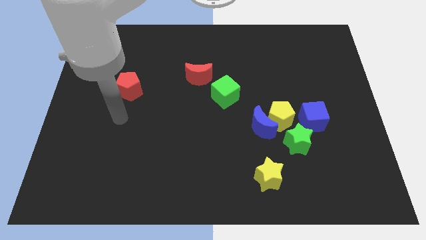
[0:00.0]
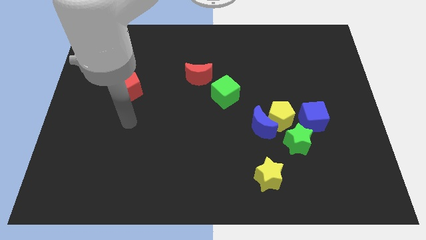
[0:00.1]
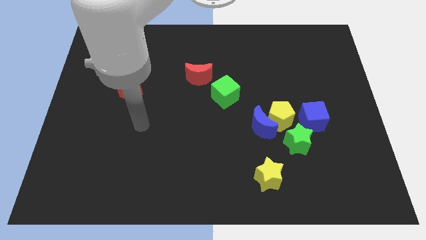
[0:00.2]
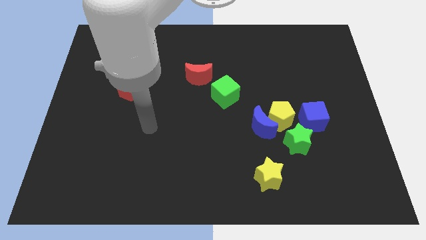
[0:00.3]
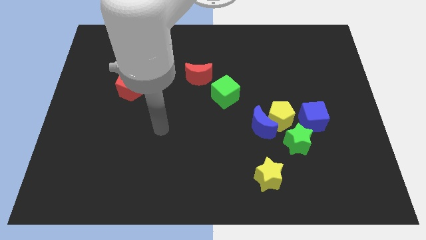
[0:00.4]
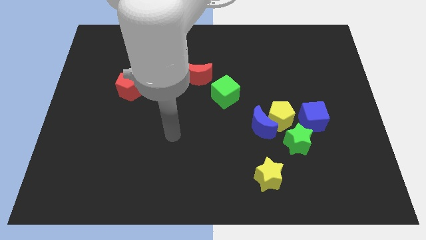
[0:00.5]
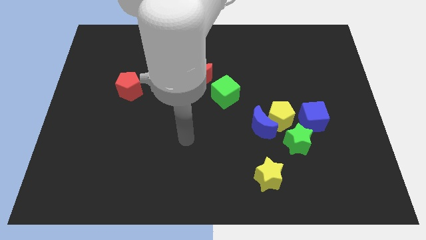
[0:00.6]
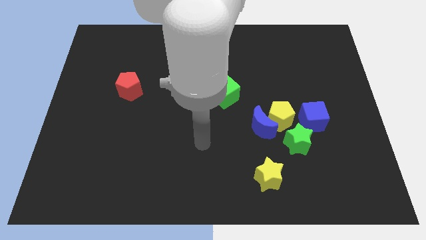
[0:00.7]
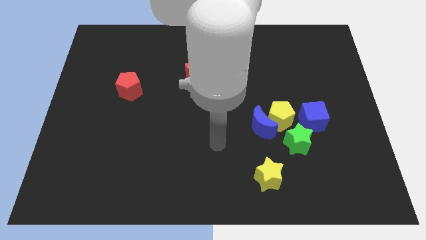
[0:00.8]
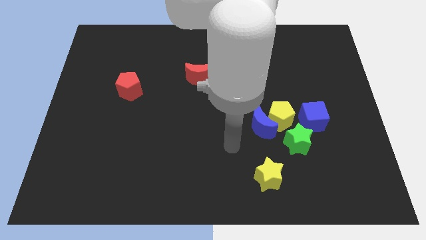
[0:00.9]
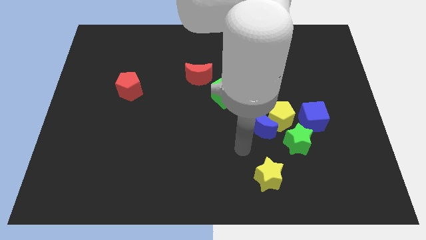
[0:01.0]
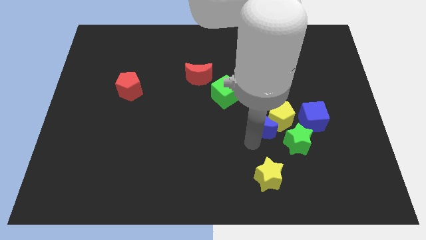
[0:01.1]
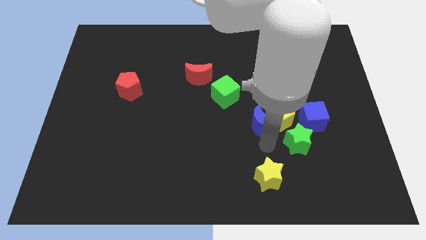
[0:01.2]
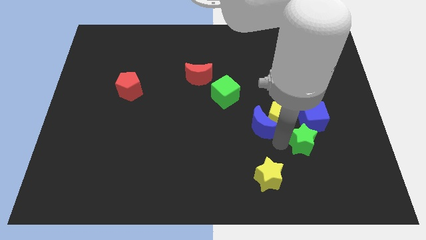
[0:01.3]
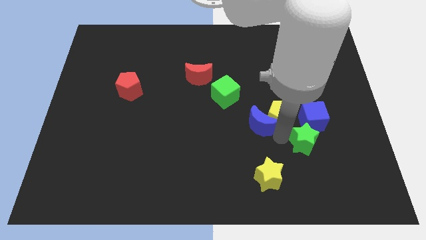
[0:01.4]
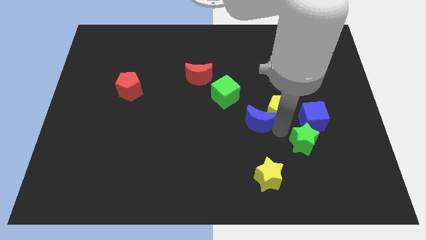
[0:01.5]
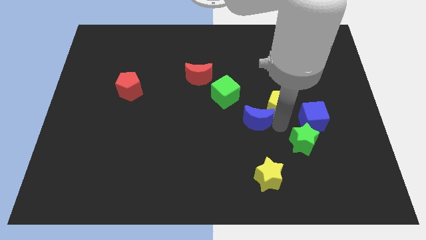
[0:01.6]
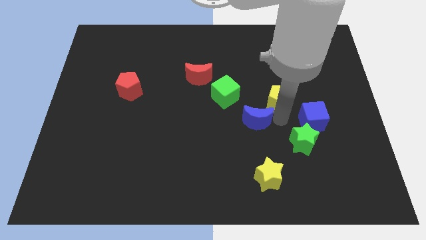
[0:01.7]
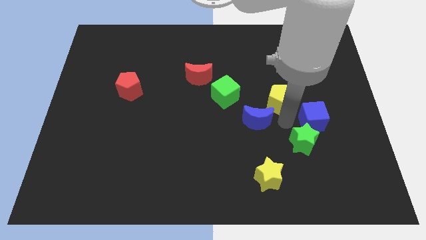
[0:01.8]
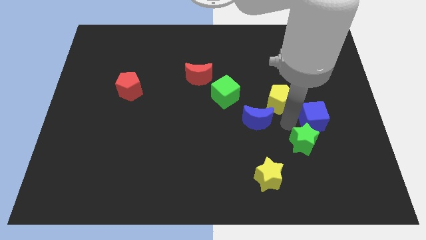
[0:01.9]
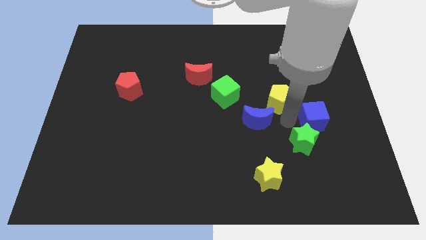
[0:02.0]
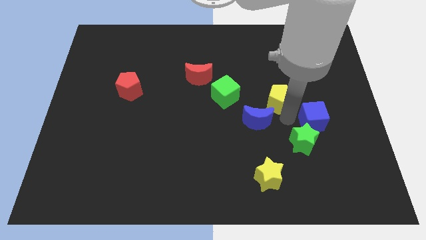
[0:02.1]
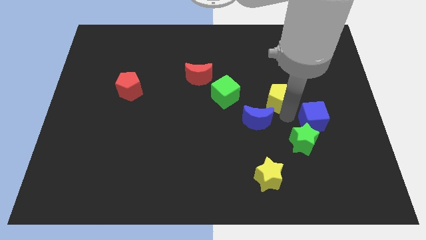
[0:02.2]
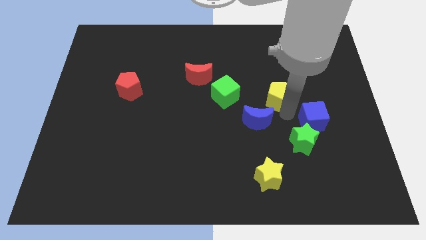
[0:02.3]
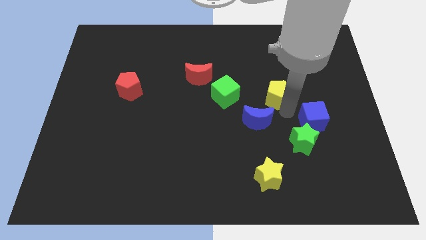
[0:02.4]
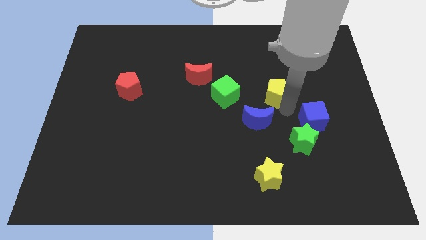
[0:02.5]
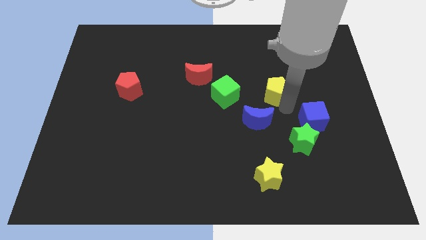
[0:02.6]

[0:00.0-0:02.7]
separate the yellow pentagon from the blue moon, blue cube, and green star

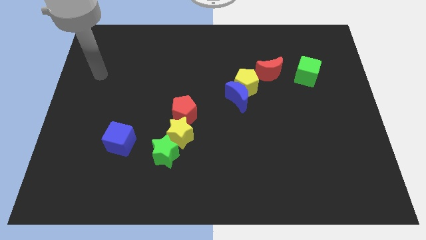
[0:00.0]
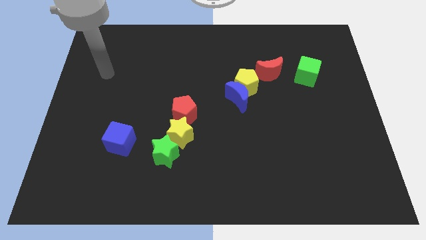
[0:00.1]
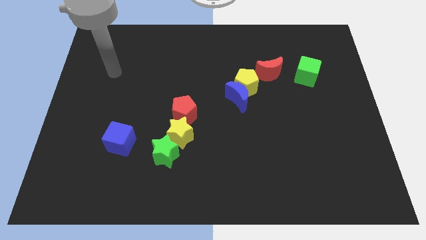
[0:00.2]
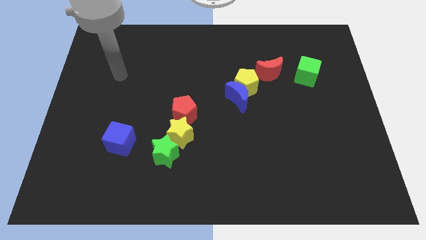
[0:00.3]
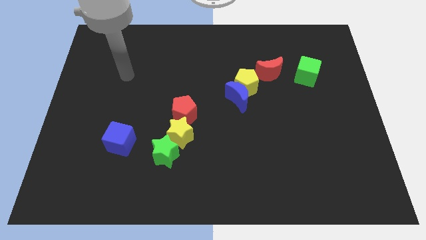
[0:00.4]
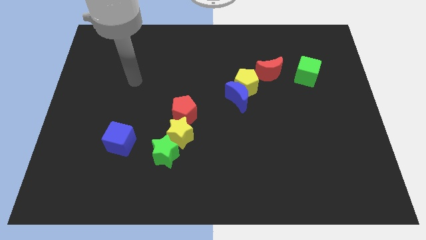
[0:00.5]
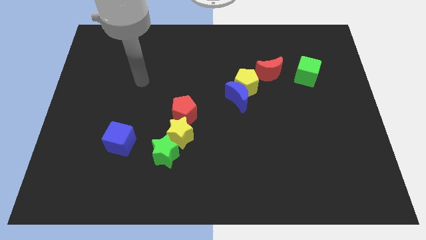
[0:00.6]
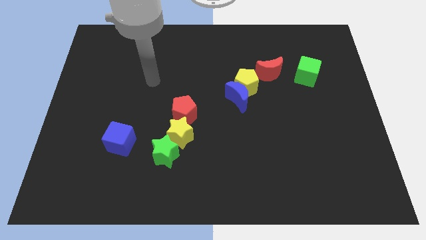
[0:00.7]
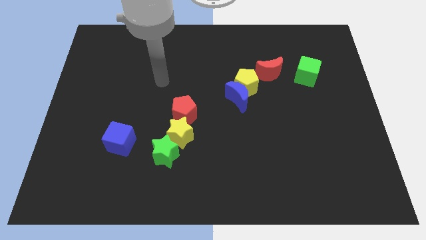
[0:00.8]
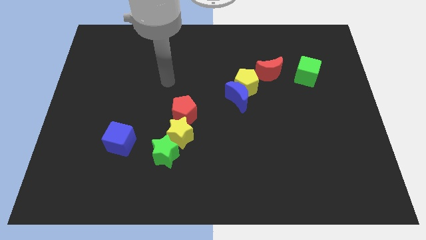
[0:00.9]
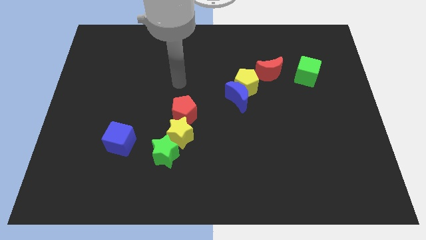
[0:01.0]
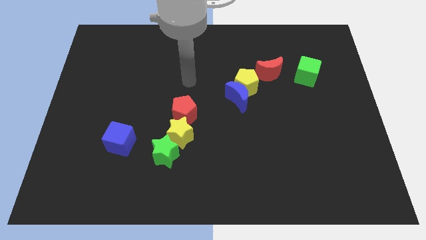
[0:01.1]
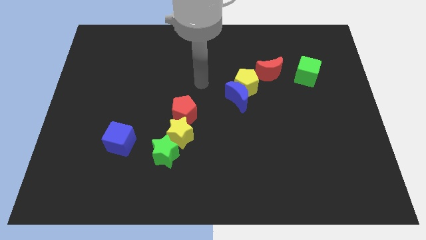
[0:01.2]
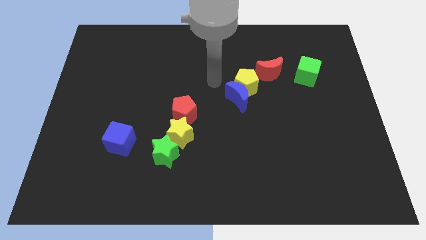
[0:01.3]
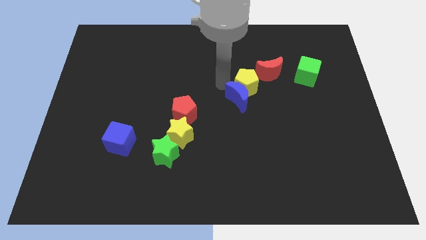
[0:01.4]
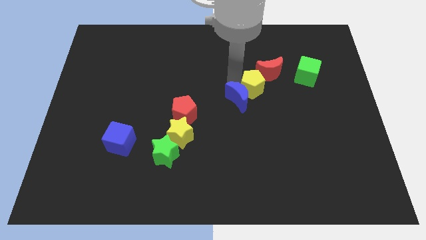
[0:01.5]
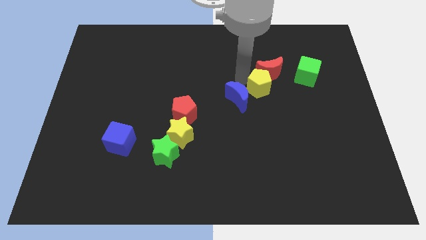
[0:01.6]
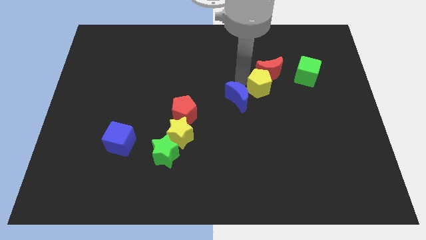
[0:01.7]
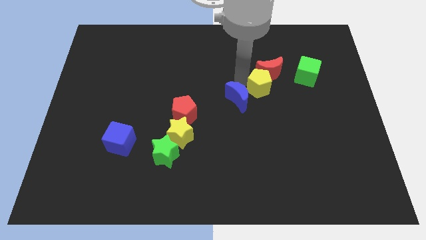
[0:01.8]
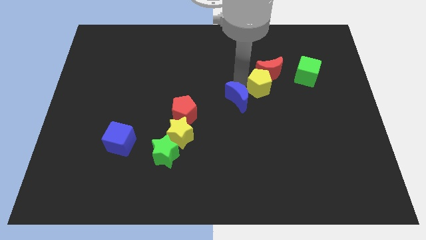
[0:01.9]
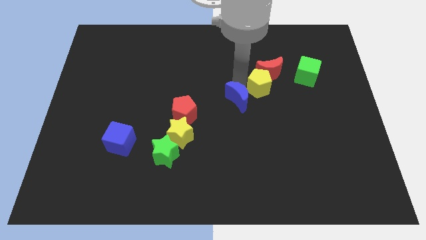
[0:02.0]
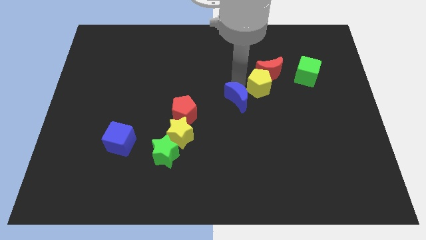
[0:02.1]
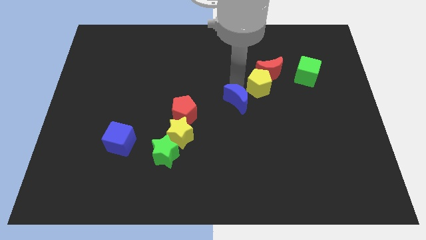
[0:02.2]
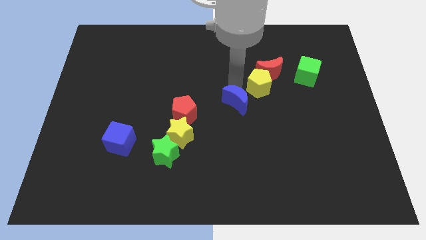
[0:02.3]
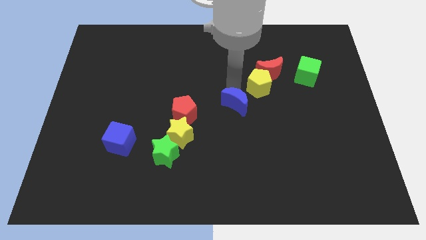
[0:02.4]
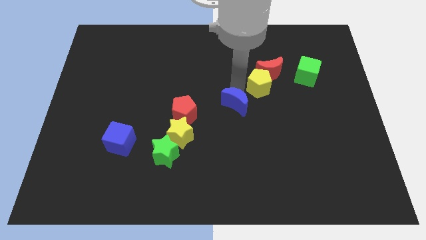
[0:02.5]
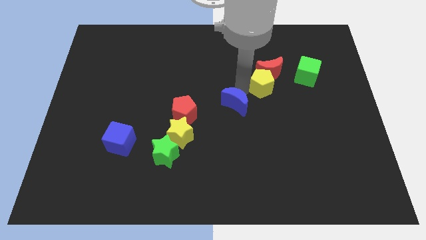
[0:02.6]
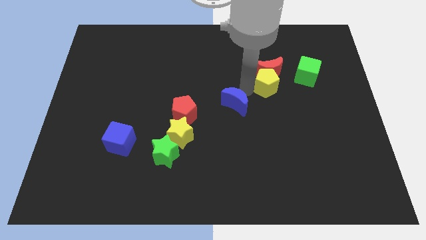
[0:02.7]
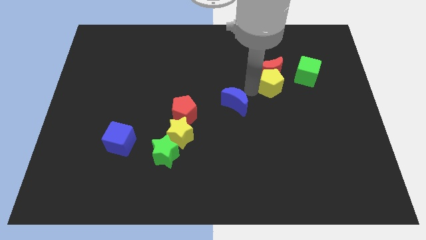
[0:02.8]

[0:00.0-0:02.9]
move the blue moon away from the yellow pentagon

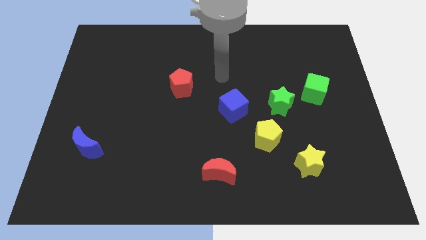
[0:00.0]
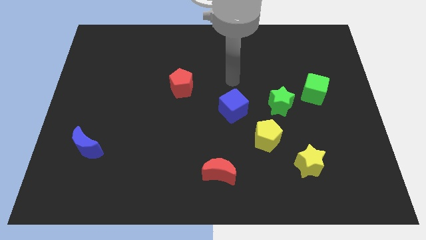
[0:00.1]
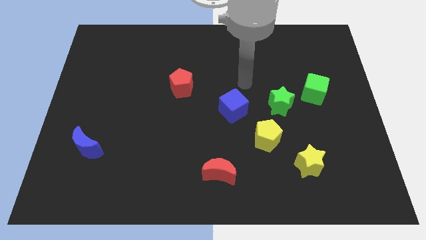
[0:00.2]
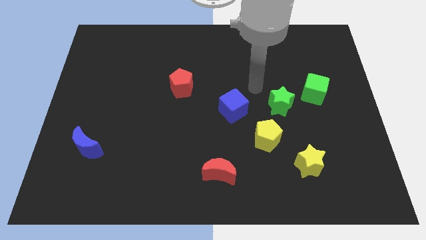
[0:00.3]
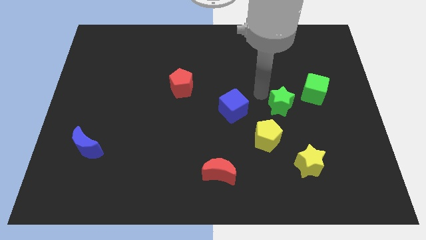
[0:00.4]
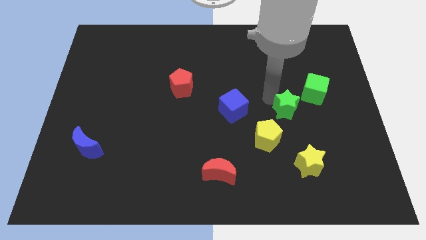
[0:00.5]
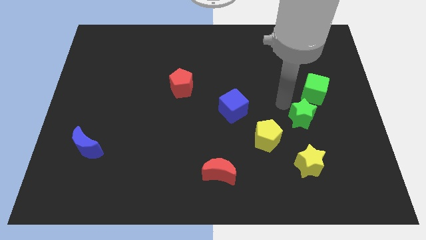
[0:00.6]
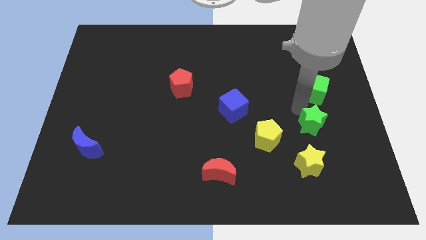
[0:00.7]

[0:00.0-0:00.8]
separate the green cube from the green star

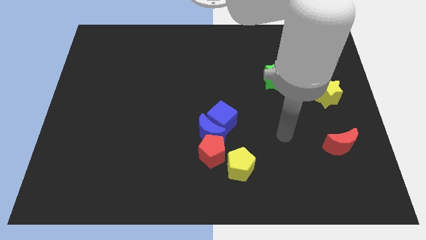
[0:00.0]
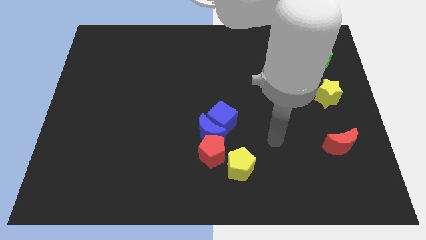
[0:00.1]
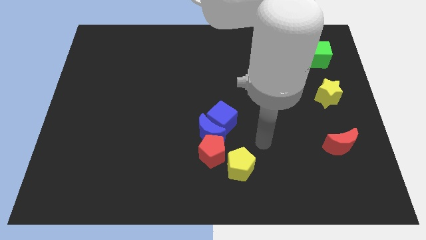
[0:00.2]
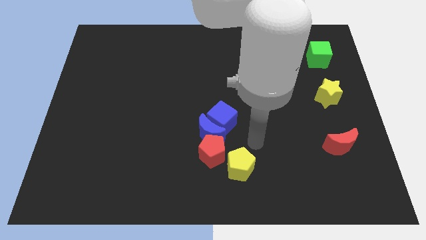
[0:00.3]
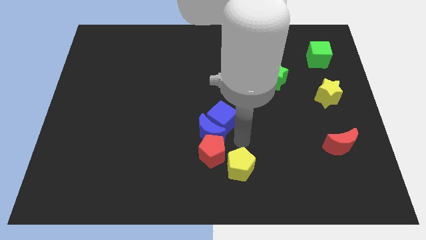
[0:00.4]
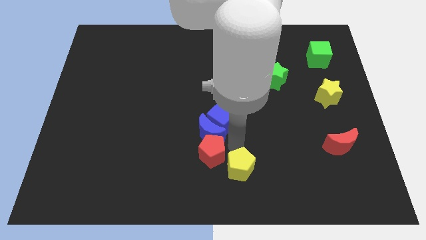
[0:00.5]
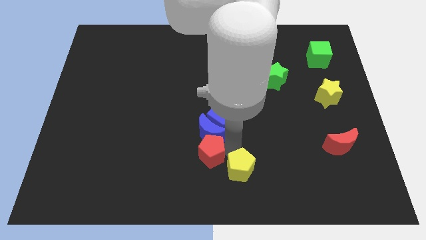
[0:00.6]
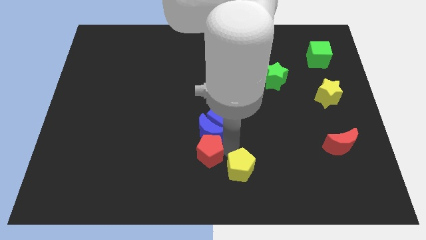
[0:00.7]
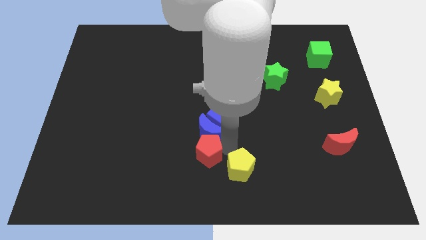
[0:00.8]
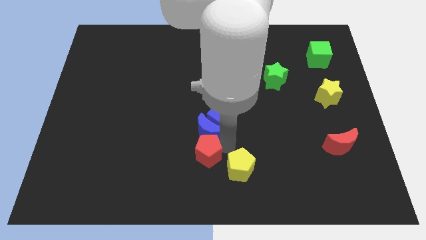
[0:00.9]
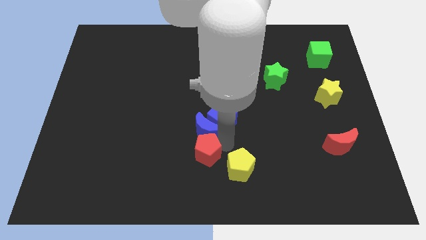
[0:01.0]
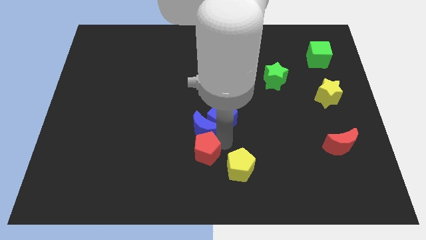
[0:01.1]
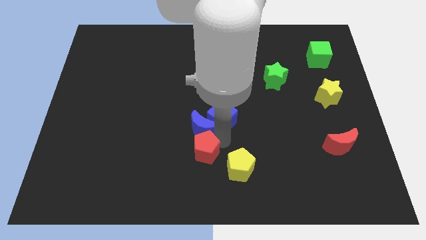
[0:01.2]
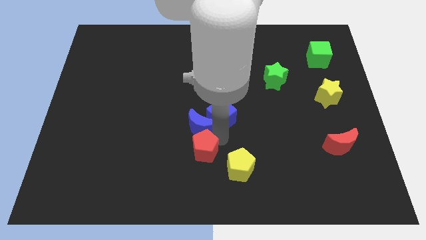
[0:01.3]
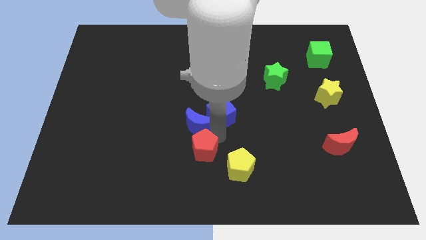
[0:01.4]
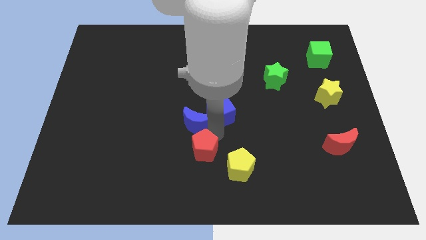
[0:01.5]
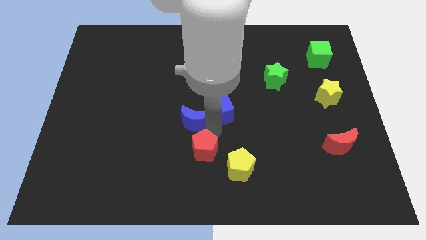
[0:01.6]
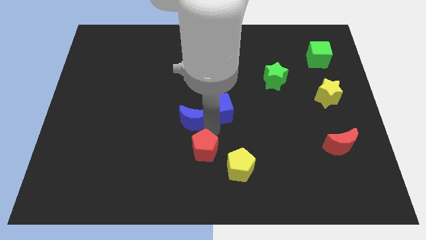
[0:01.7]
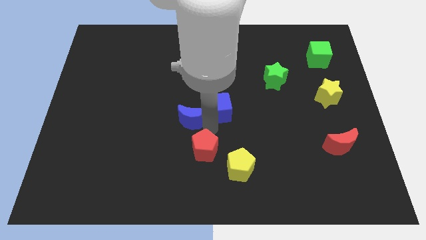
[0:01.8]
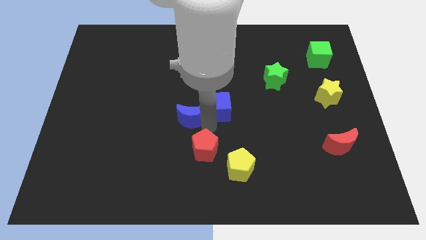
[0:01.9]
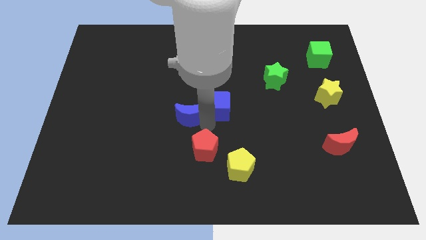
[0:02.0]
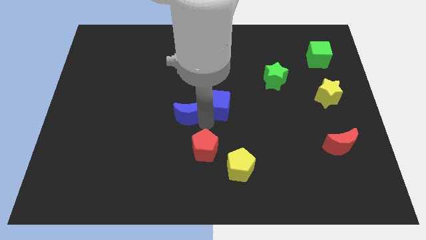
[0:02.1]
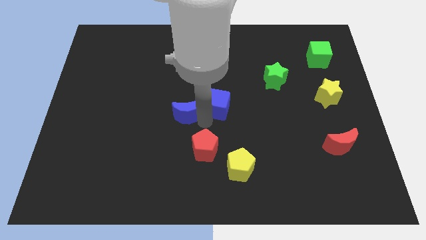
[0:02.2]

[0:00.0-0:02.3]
separate the blue moon from the blue cube, red pentagon, and yellow pentagon

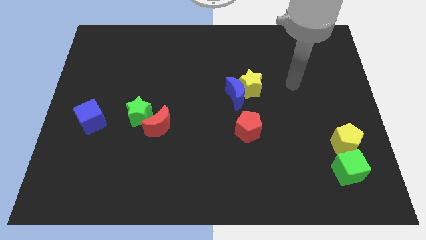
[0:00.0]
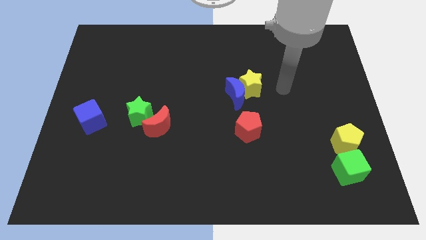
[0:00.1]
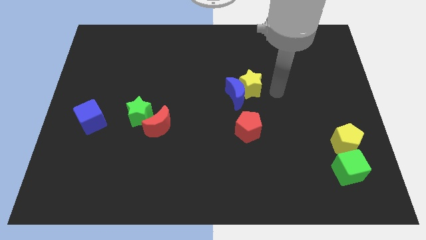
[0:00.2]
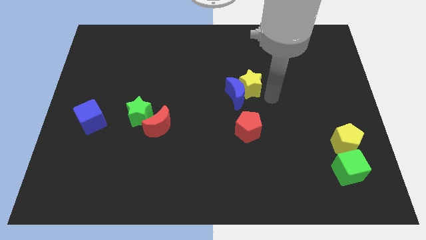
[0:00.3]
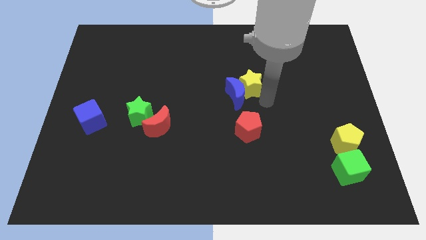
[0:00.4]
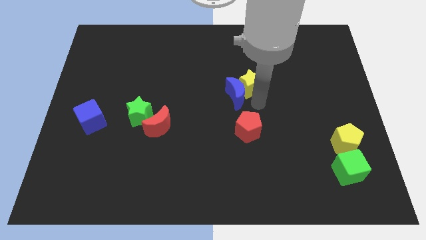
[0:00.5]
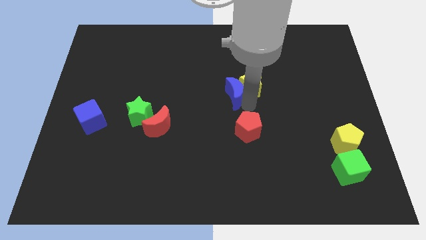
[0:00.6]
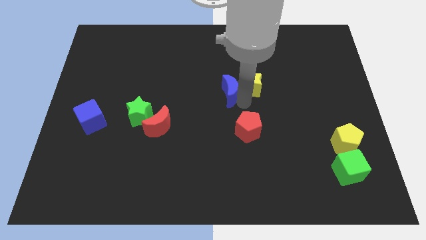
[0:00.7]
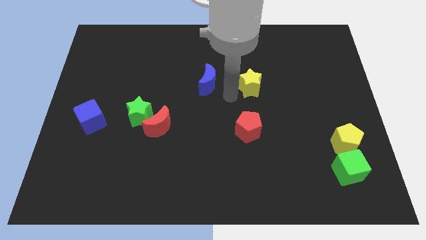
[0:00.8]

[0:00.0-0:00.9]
pull the yellow star apart from the blue moon
